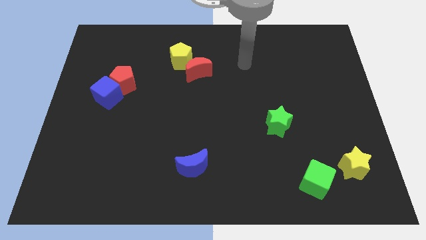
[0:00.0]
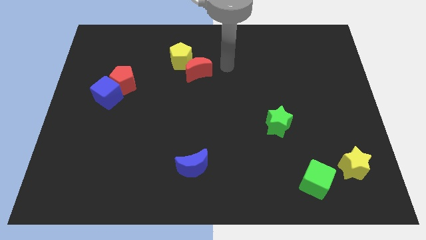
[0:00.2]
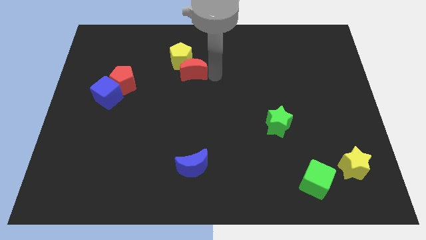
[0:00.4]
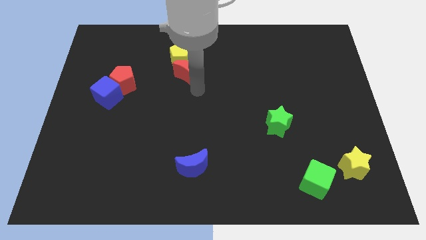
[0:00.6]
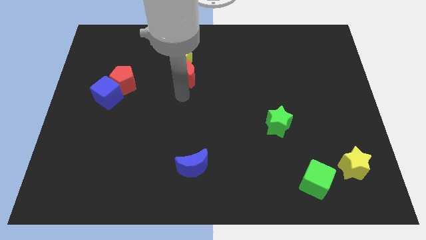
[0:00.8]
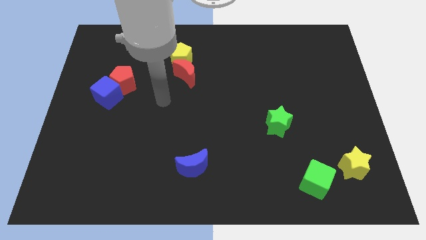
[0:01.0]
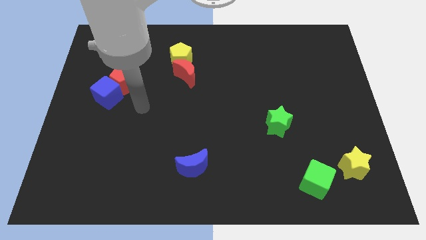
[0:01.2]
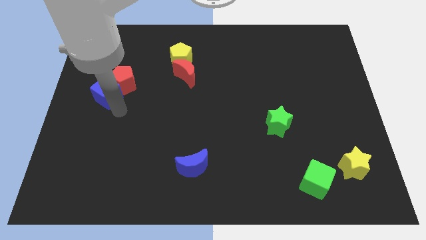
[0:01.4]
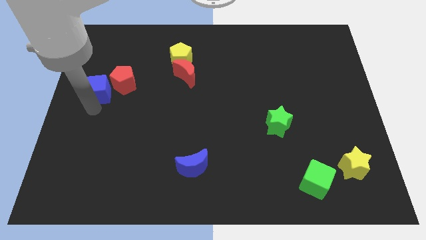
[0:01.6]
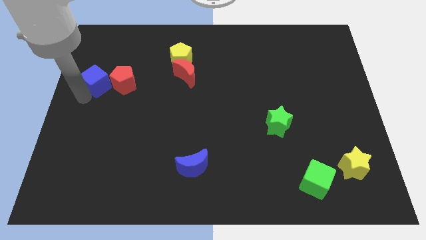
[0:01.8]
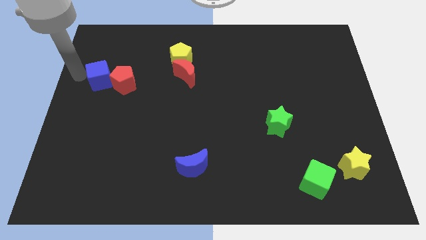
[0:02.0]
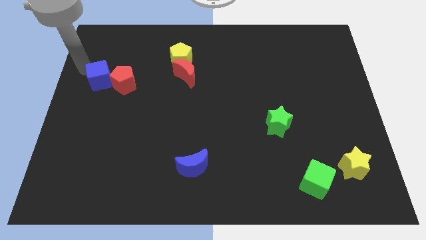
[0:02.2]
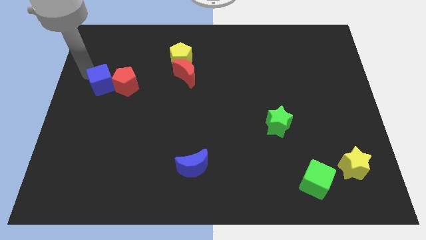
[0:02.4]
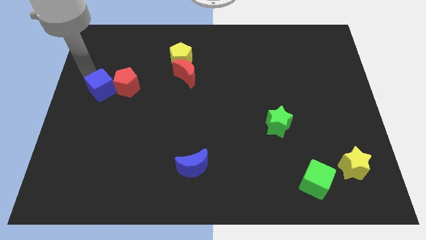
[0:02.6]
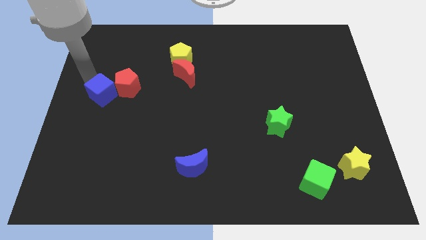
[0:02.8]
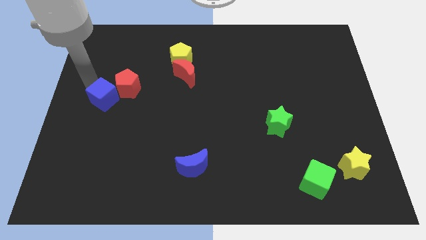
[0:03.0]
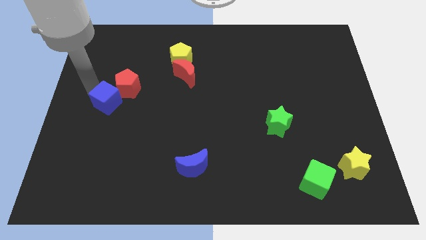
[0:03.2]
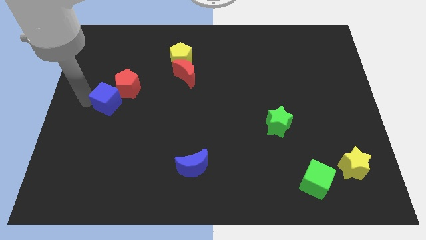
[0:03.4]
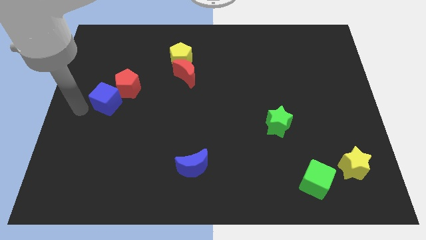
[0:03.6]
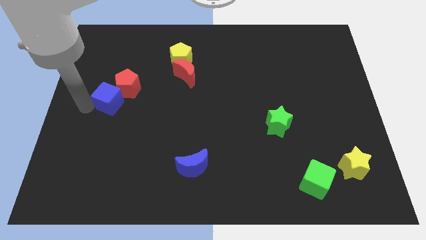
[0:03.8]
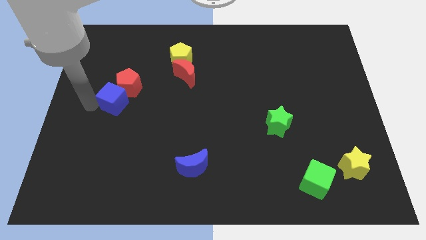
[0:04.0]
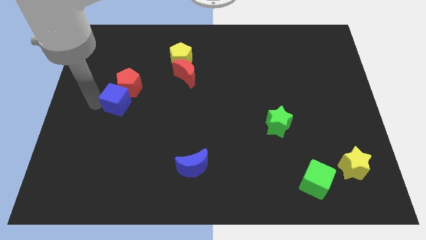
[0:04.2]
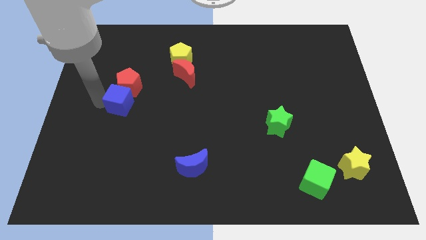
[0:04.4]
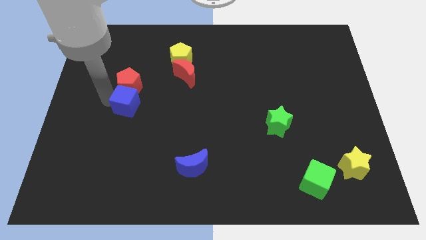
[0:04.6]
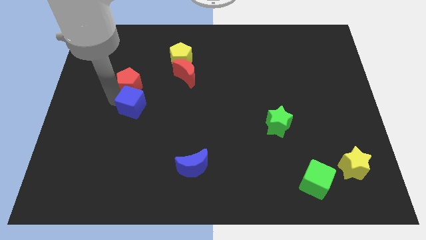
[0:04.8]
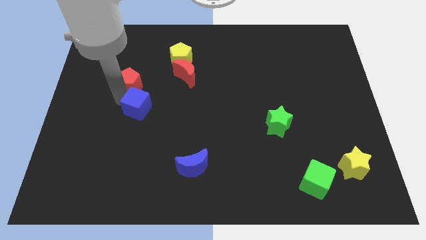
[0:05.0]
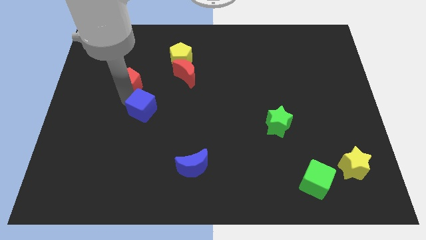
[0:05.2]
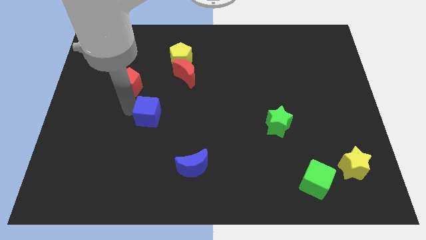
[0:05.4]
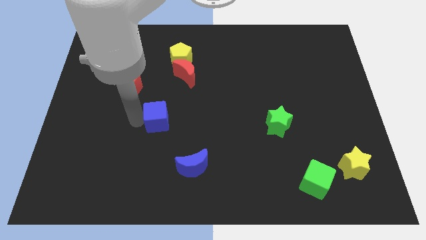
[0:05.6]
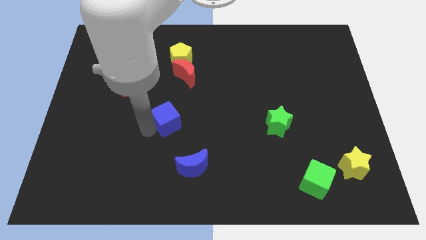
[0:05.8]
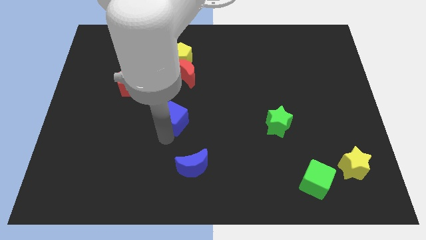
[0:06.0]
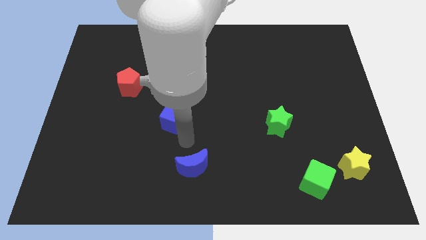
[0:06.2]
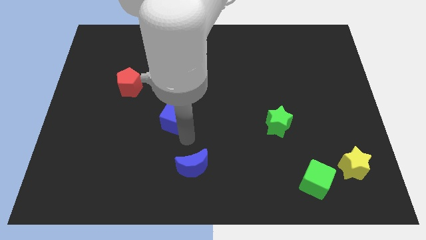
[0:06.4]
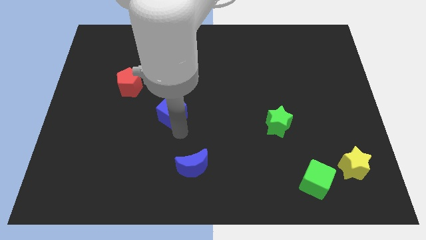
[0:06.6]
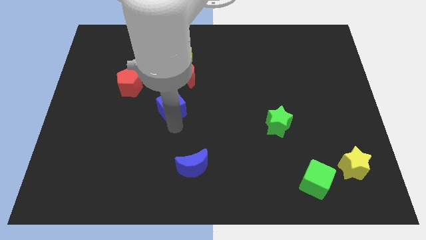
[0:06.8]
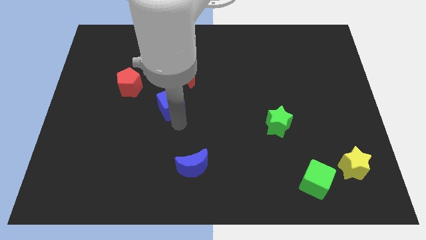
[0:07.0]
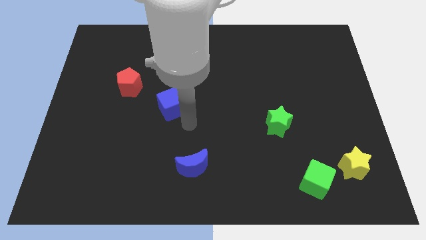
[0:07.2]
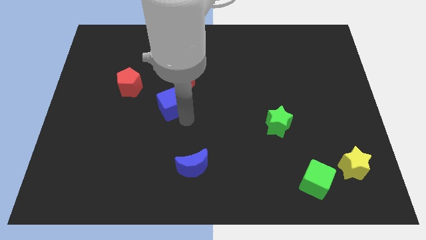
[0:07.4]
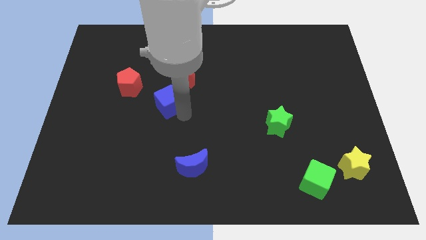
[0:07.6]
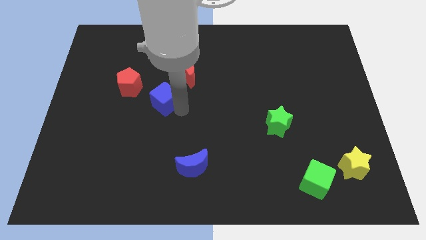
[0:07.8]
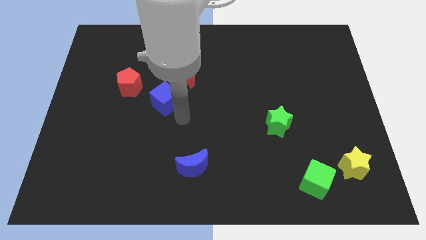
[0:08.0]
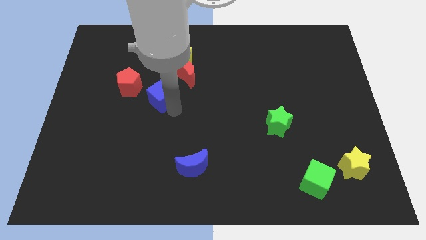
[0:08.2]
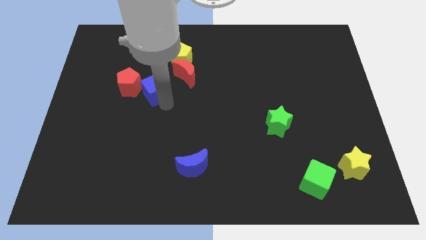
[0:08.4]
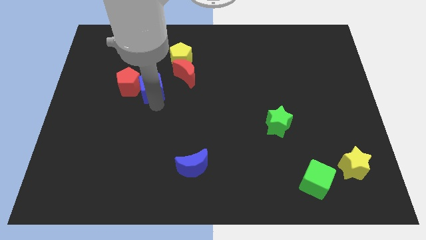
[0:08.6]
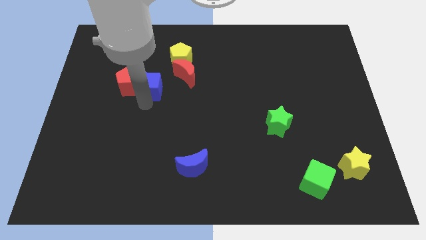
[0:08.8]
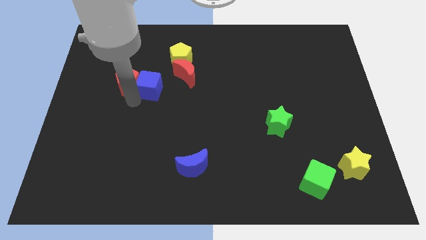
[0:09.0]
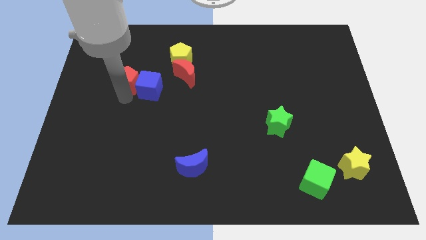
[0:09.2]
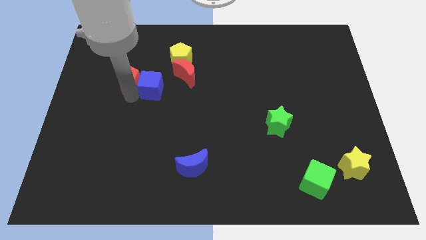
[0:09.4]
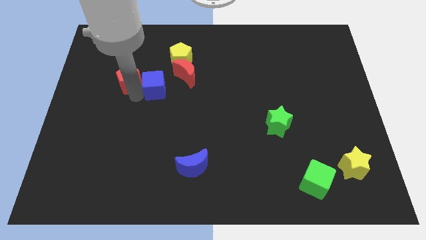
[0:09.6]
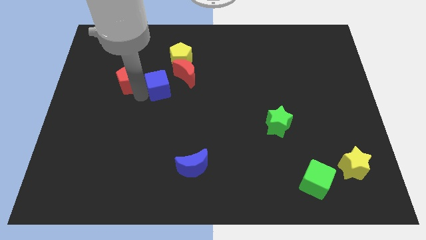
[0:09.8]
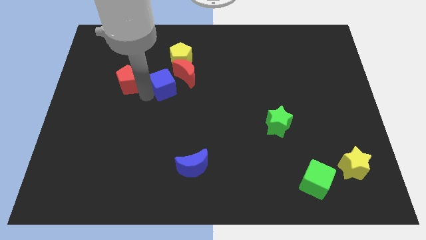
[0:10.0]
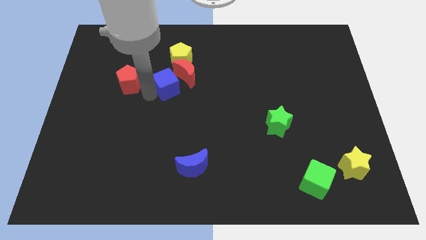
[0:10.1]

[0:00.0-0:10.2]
slide the blue cube to the red moon

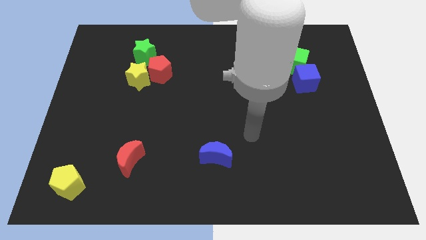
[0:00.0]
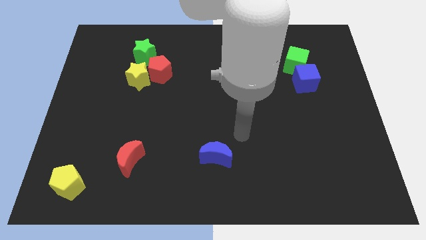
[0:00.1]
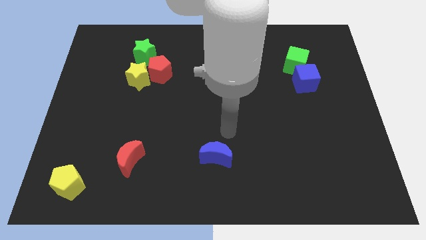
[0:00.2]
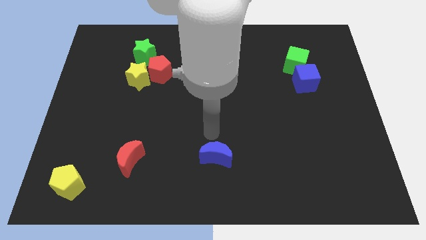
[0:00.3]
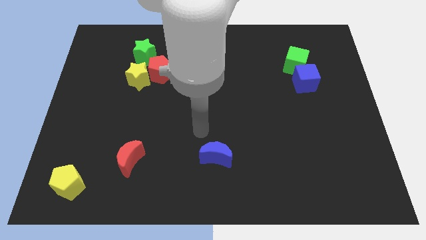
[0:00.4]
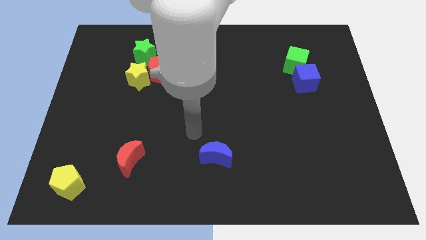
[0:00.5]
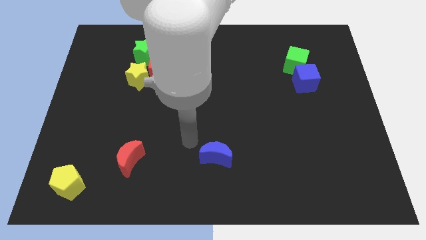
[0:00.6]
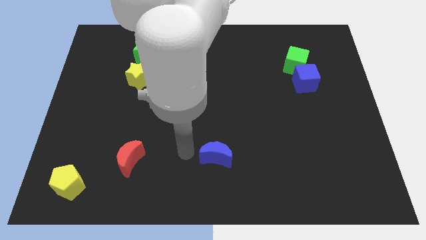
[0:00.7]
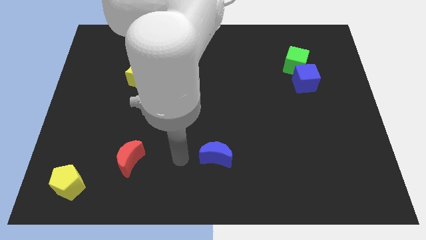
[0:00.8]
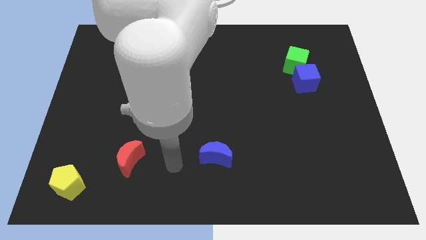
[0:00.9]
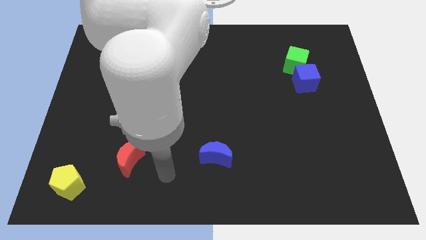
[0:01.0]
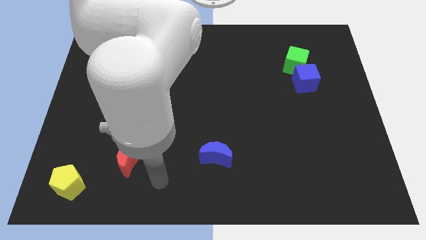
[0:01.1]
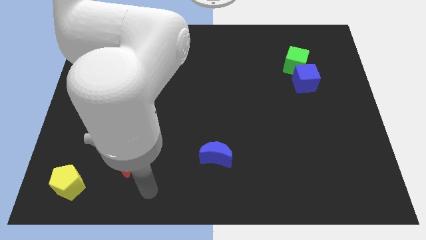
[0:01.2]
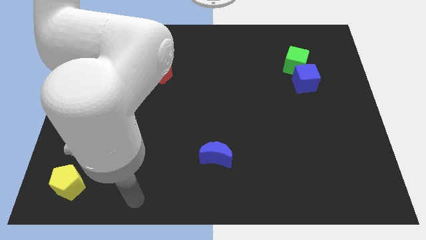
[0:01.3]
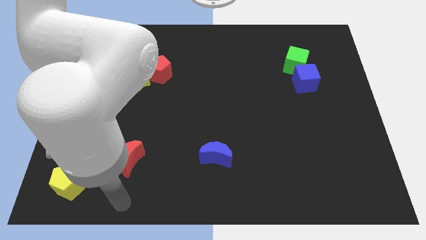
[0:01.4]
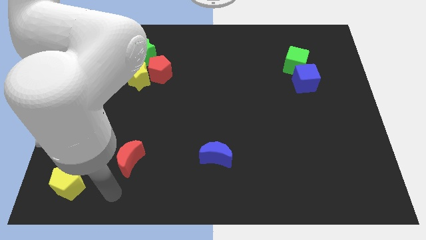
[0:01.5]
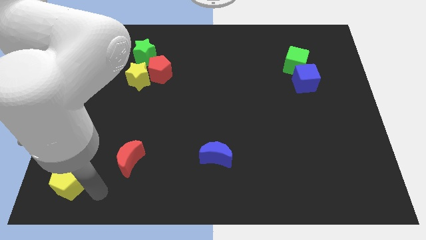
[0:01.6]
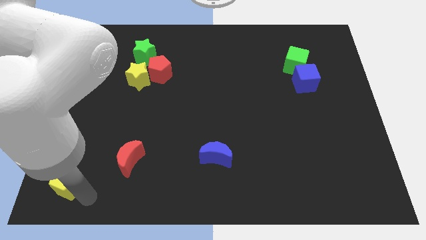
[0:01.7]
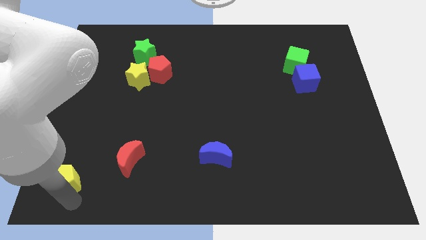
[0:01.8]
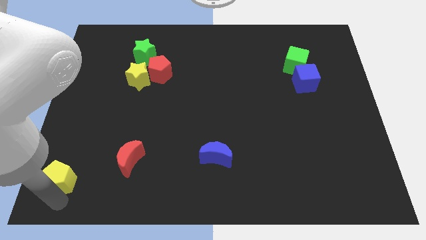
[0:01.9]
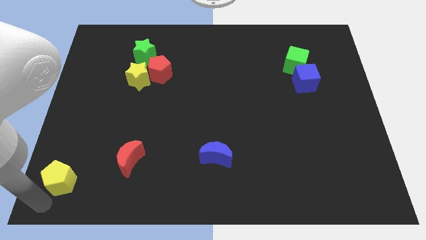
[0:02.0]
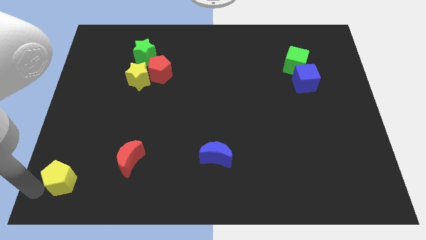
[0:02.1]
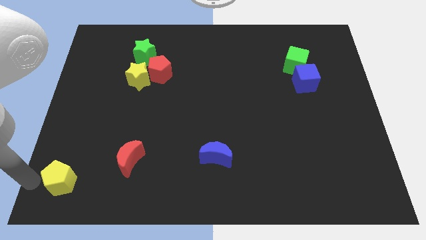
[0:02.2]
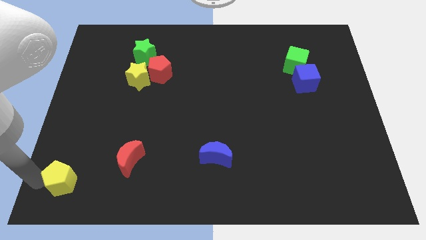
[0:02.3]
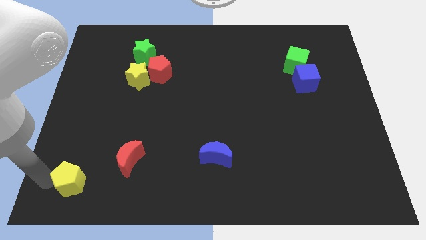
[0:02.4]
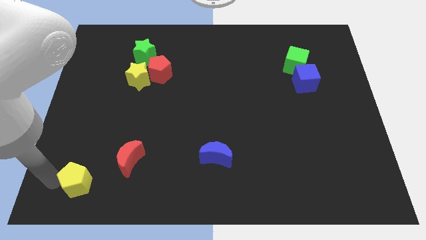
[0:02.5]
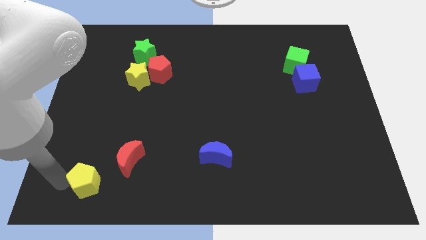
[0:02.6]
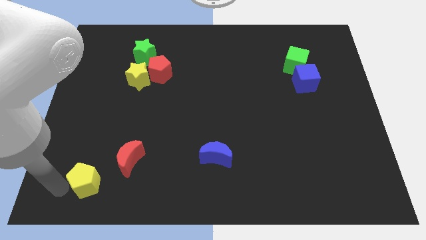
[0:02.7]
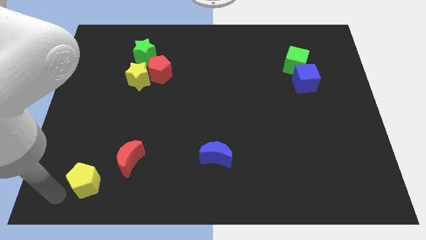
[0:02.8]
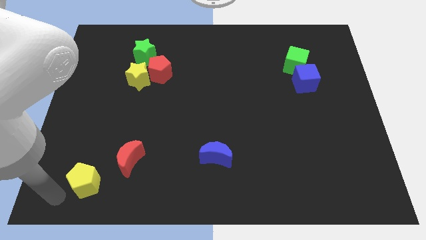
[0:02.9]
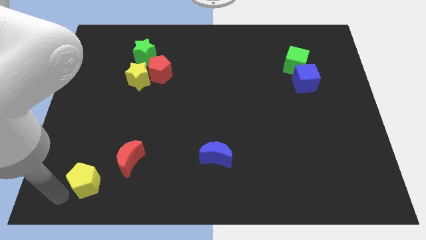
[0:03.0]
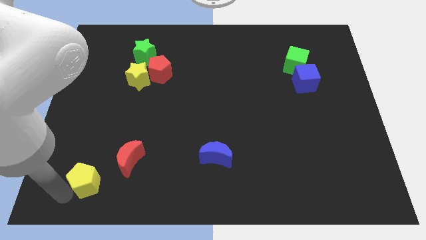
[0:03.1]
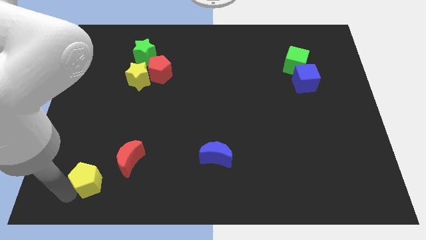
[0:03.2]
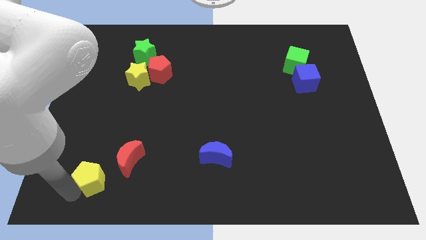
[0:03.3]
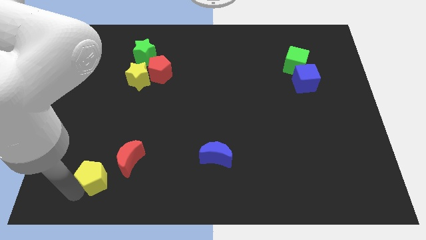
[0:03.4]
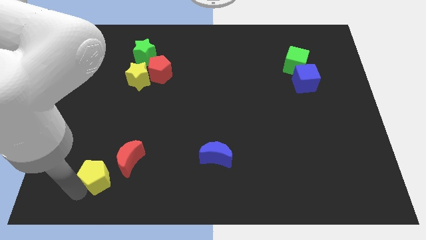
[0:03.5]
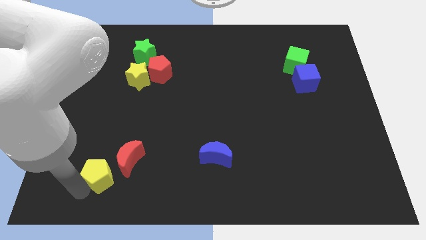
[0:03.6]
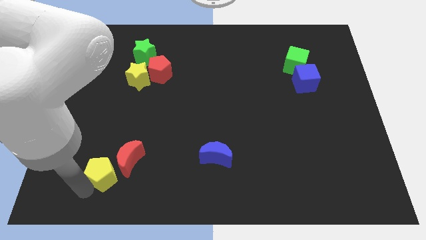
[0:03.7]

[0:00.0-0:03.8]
put the yellow pentagon next to the red moon
